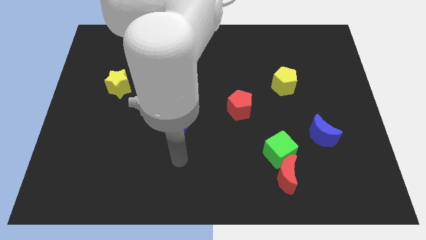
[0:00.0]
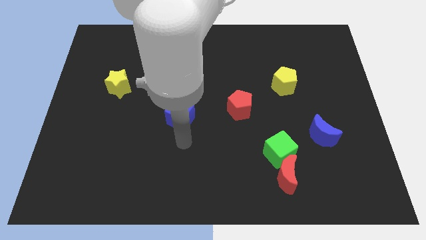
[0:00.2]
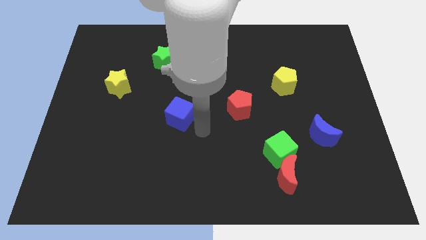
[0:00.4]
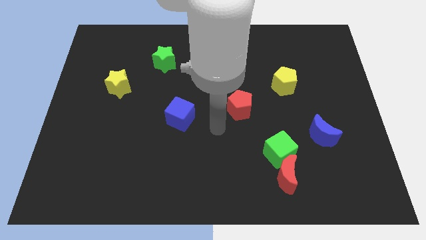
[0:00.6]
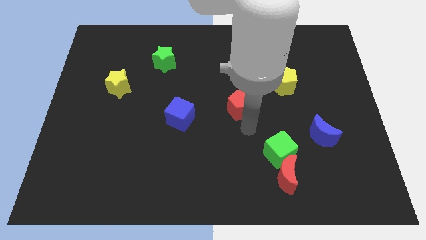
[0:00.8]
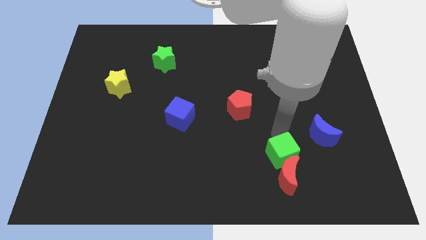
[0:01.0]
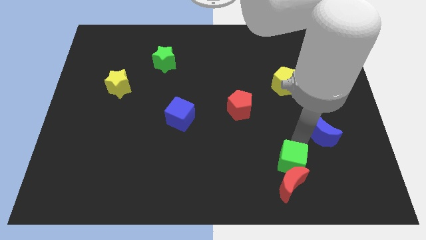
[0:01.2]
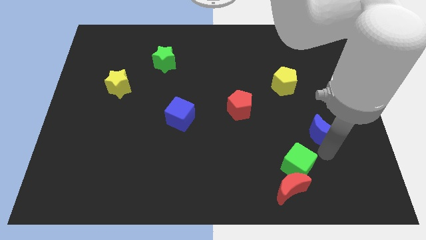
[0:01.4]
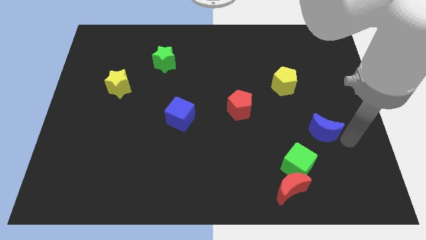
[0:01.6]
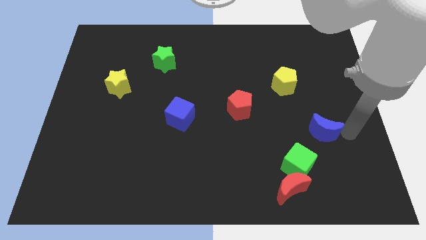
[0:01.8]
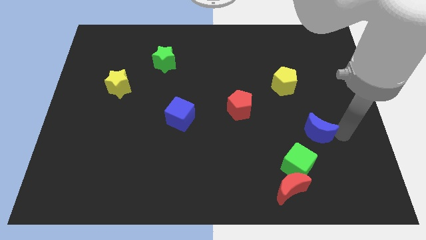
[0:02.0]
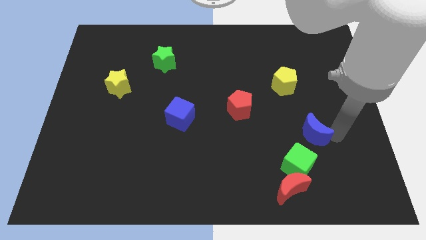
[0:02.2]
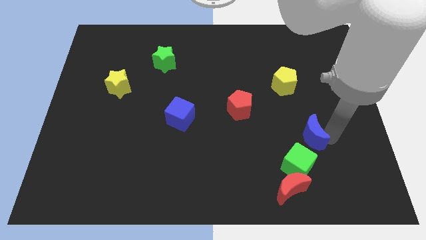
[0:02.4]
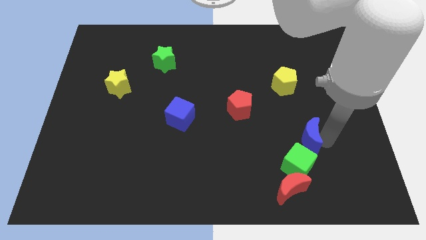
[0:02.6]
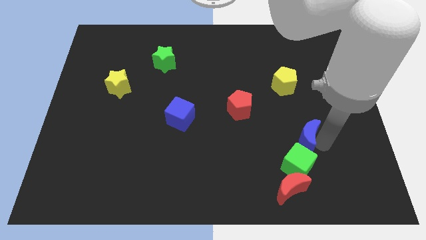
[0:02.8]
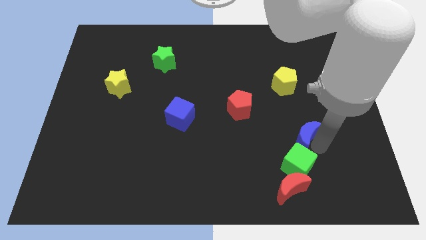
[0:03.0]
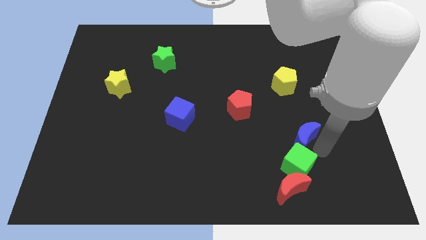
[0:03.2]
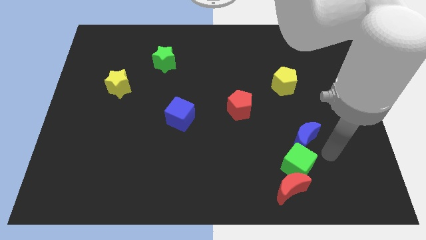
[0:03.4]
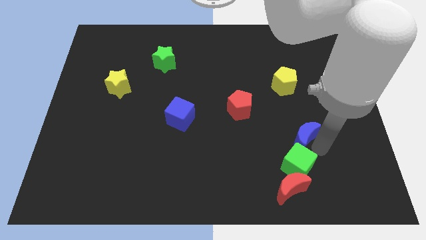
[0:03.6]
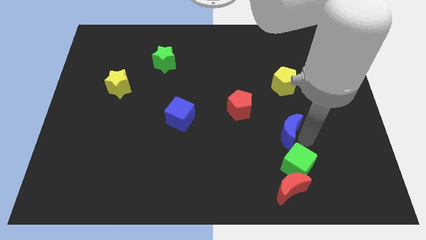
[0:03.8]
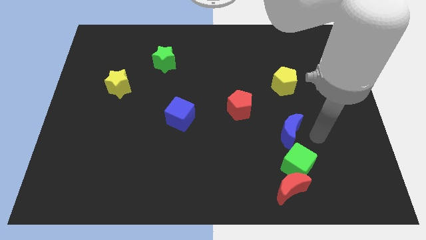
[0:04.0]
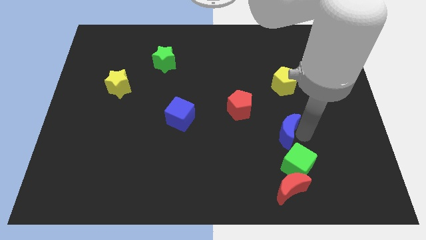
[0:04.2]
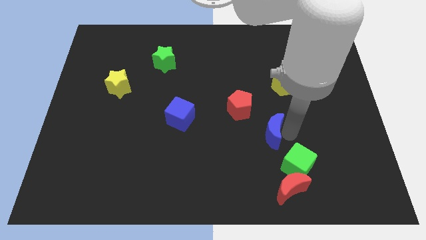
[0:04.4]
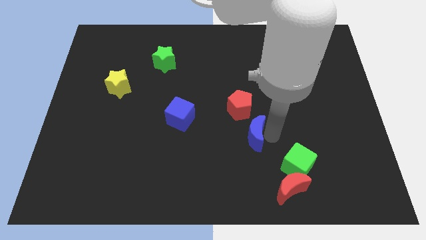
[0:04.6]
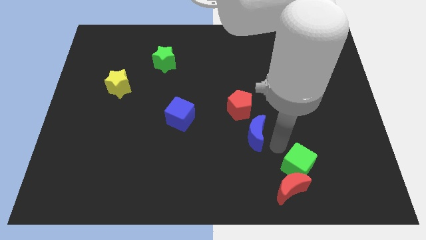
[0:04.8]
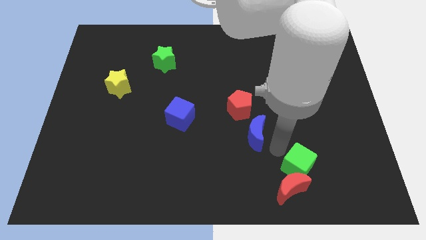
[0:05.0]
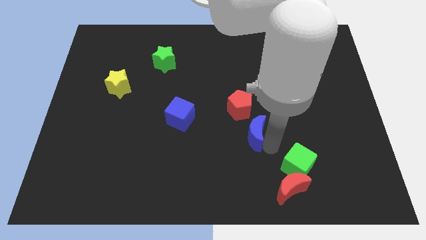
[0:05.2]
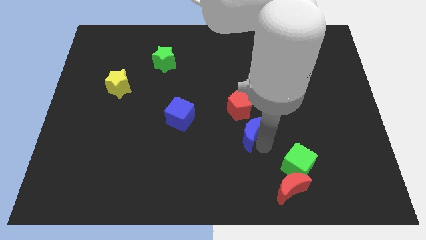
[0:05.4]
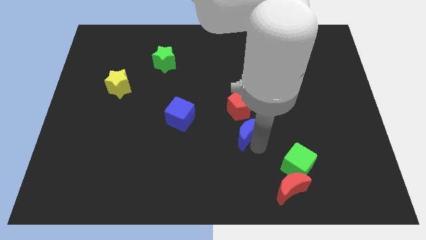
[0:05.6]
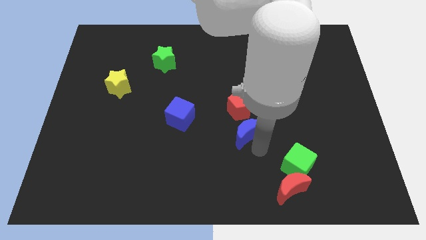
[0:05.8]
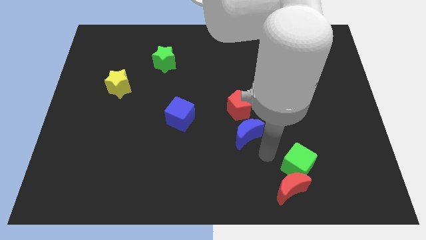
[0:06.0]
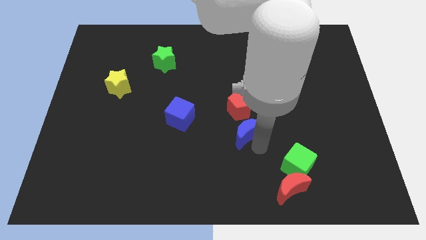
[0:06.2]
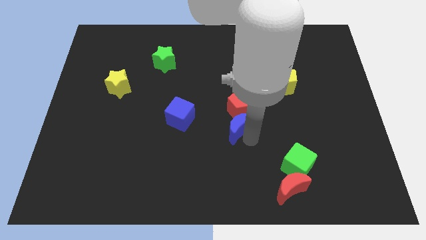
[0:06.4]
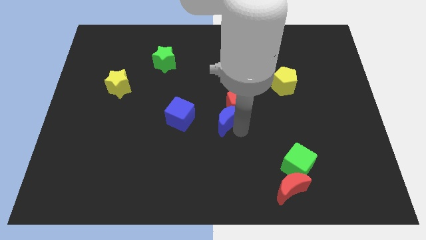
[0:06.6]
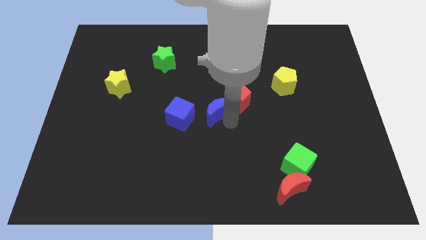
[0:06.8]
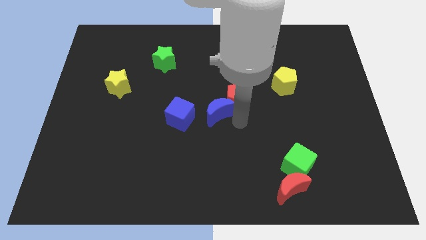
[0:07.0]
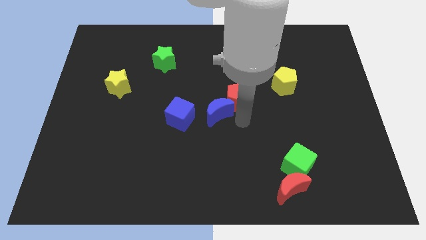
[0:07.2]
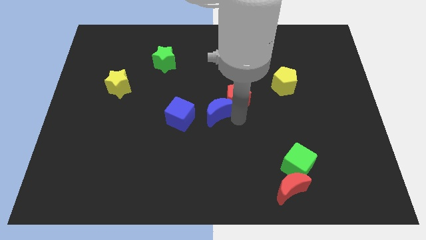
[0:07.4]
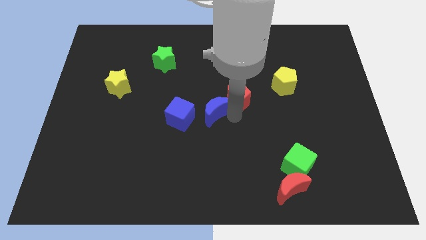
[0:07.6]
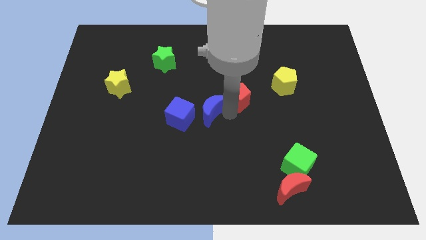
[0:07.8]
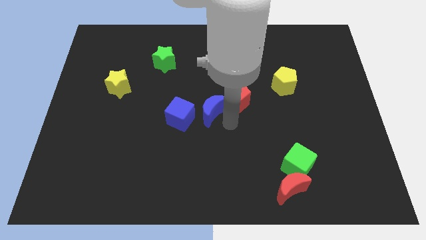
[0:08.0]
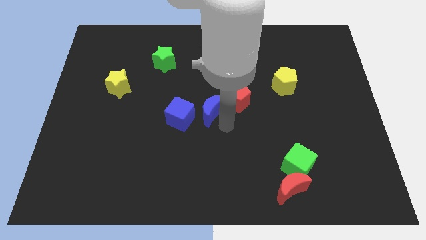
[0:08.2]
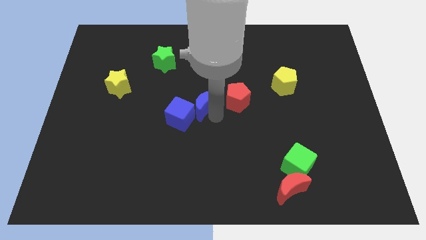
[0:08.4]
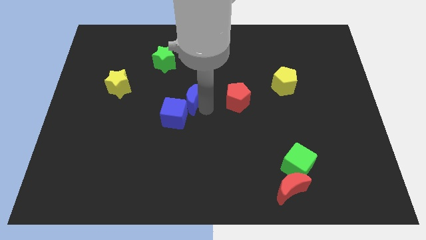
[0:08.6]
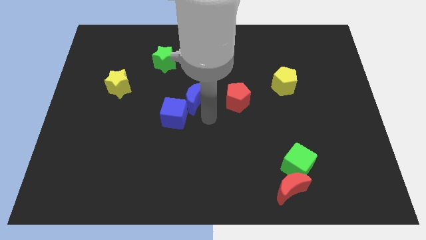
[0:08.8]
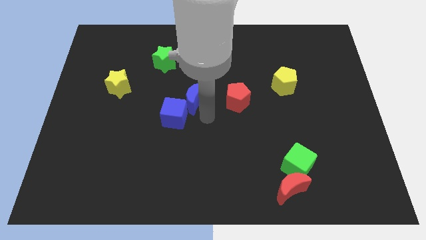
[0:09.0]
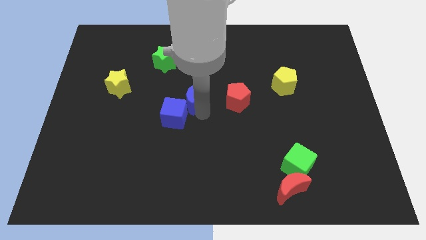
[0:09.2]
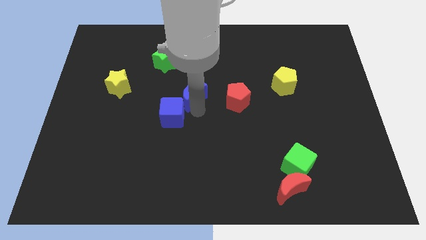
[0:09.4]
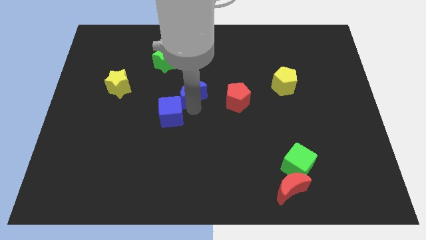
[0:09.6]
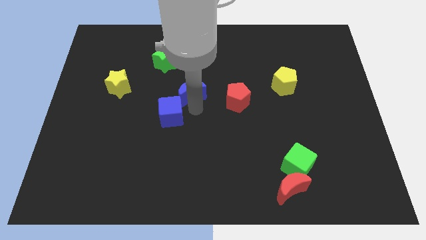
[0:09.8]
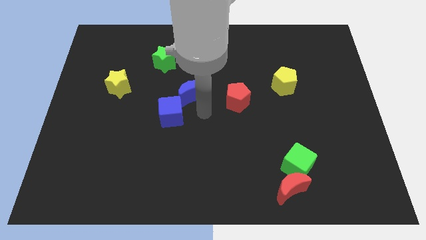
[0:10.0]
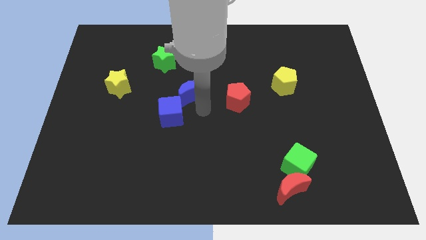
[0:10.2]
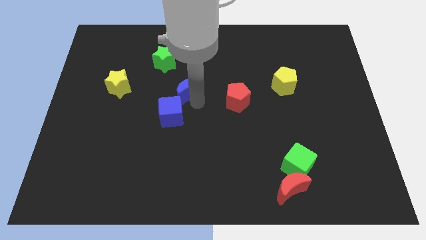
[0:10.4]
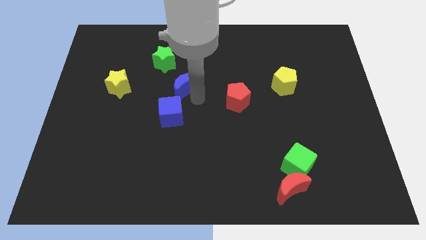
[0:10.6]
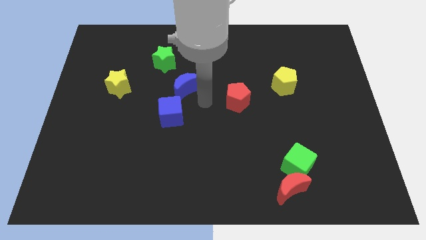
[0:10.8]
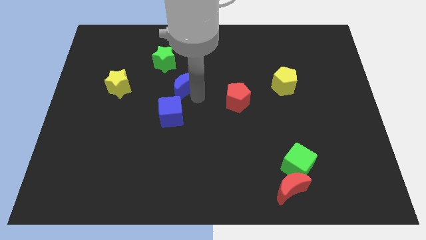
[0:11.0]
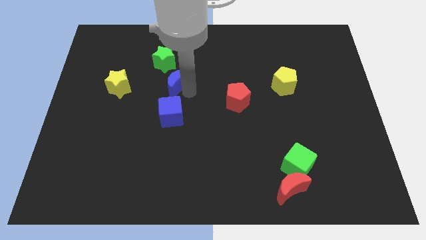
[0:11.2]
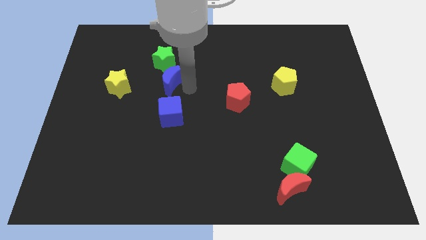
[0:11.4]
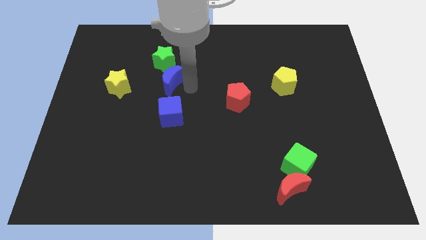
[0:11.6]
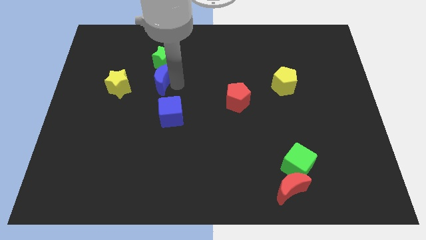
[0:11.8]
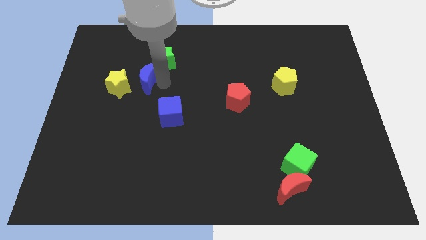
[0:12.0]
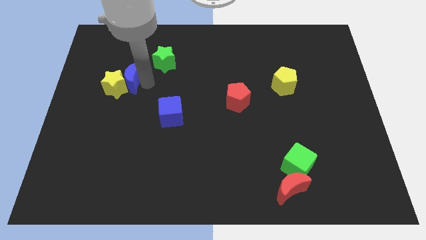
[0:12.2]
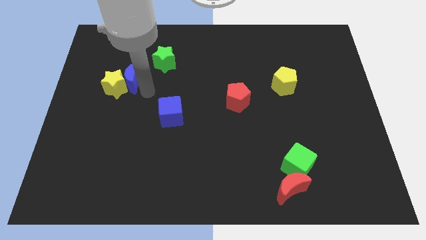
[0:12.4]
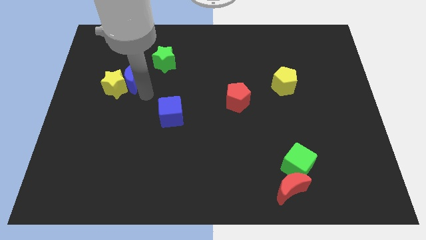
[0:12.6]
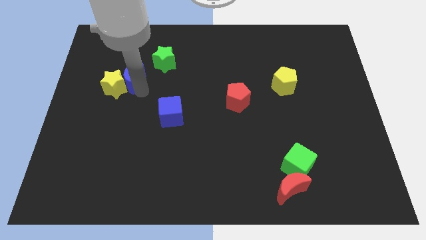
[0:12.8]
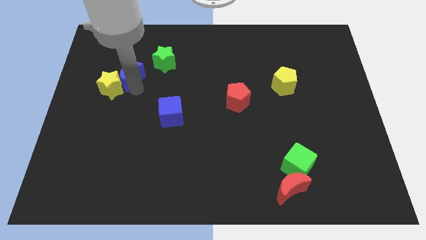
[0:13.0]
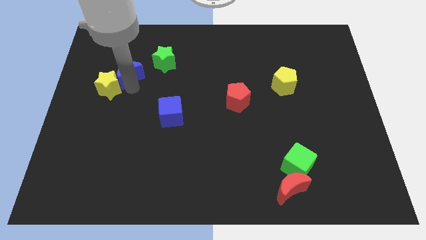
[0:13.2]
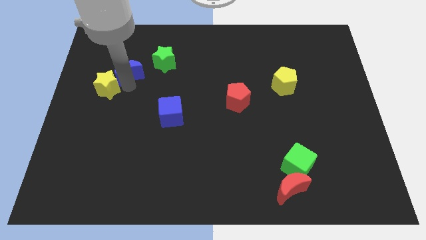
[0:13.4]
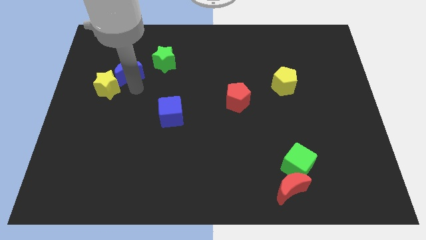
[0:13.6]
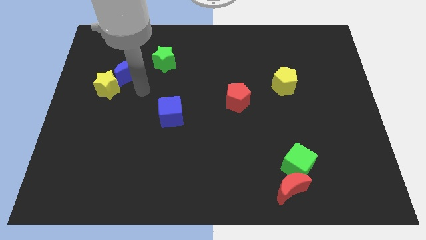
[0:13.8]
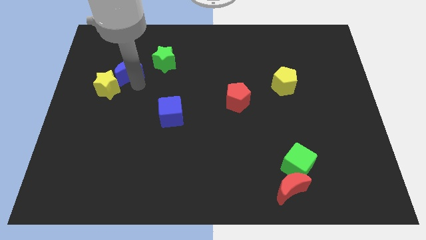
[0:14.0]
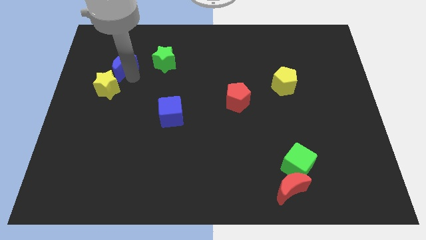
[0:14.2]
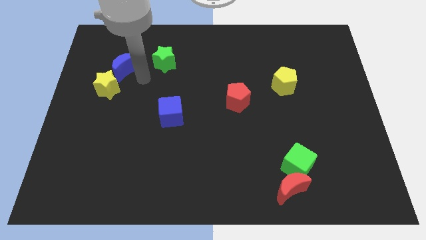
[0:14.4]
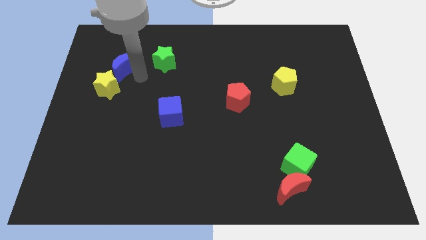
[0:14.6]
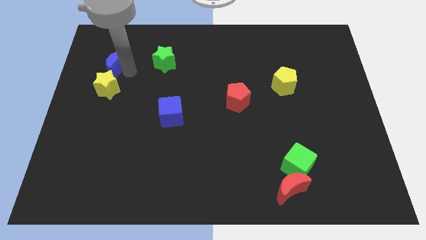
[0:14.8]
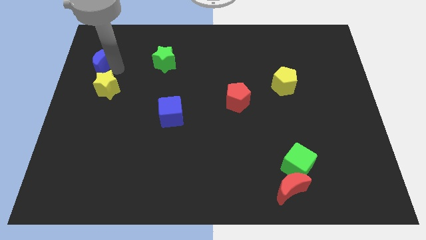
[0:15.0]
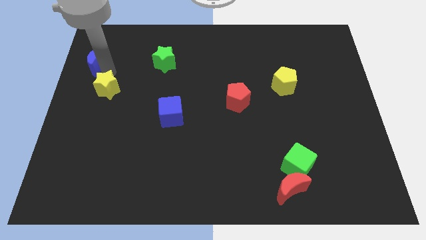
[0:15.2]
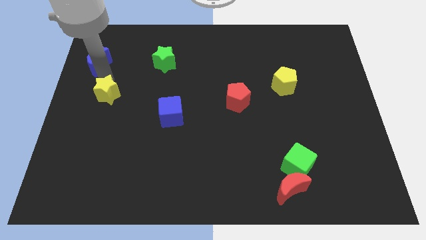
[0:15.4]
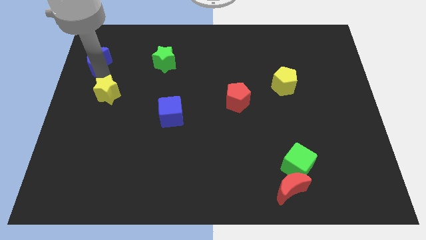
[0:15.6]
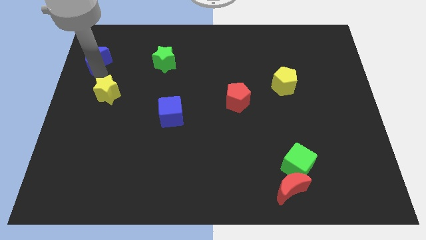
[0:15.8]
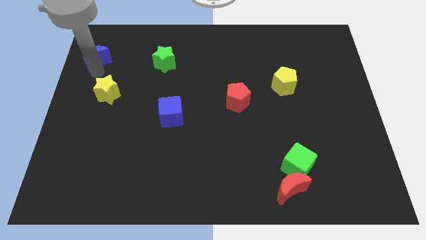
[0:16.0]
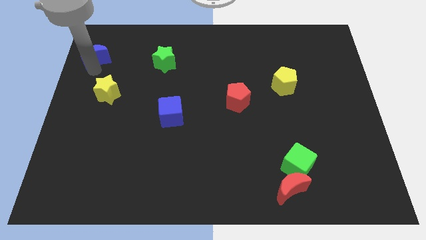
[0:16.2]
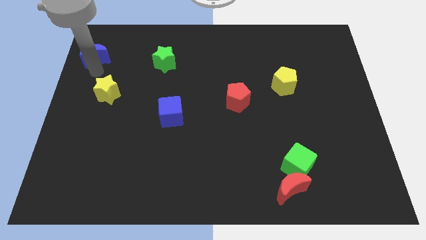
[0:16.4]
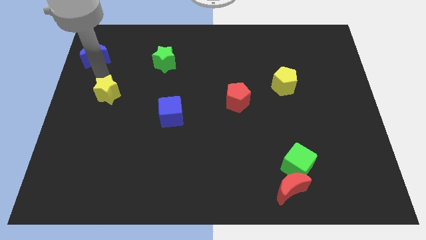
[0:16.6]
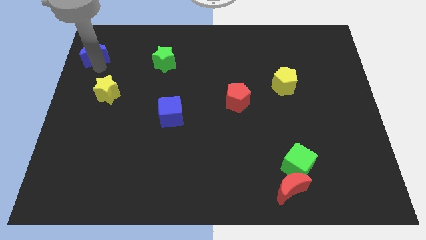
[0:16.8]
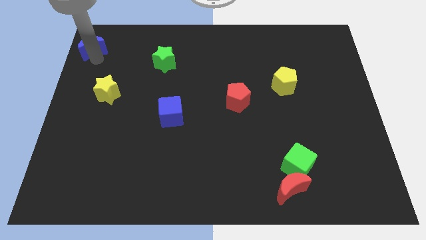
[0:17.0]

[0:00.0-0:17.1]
slide the blue moon to the top left corner
